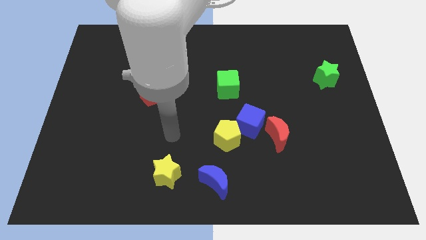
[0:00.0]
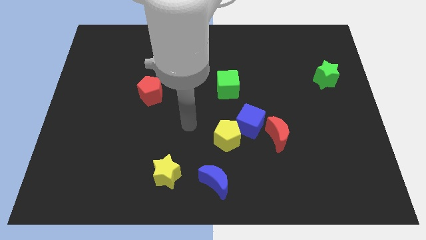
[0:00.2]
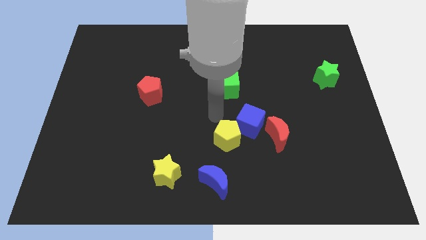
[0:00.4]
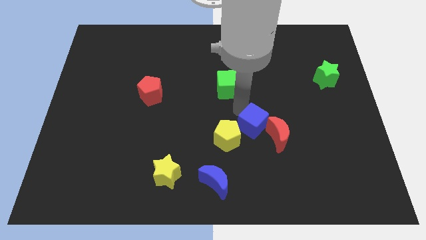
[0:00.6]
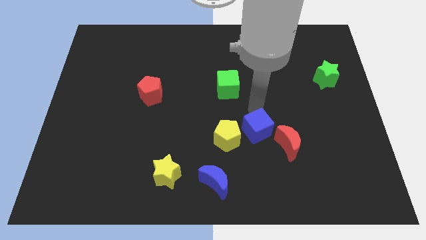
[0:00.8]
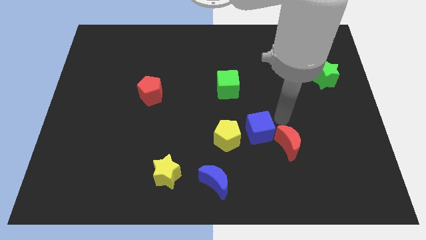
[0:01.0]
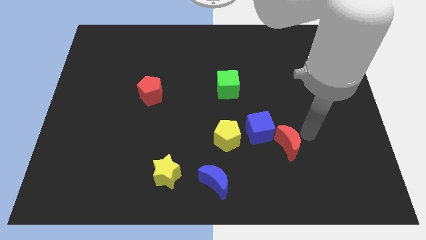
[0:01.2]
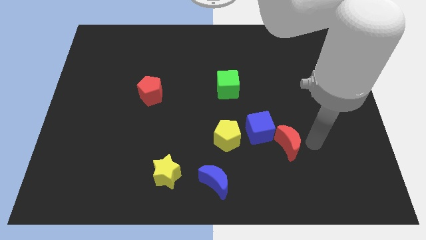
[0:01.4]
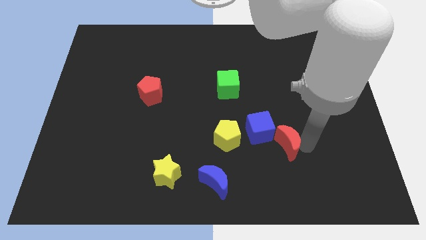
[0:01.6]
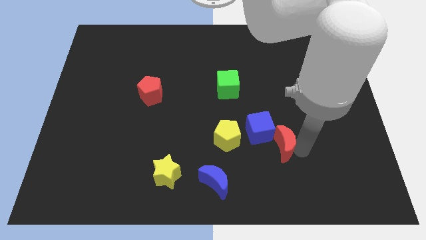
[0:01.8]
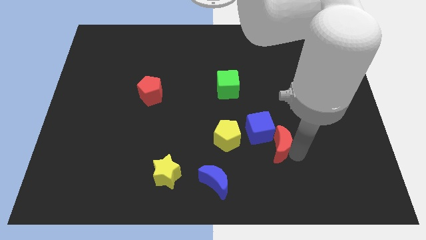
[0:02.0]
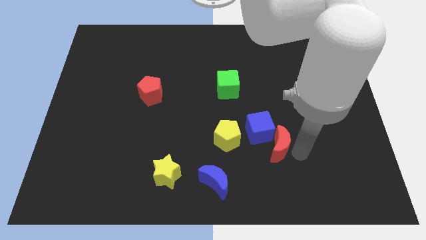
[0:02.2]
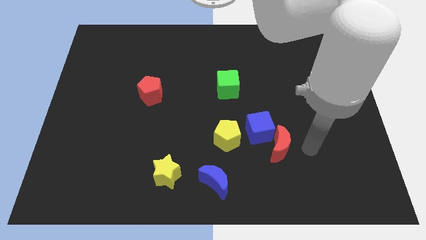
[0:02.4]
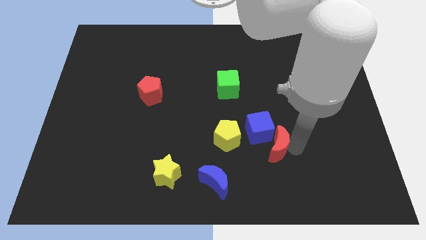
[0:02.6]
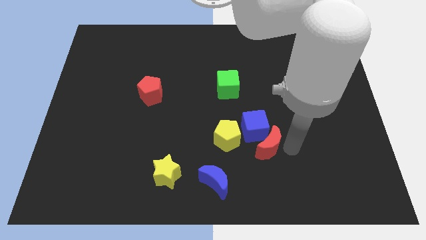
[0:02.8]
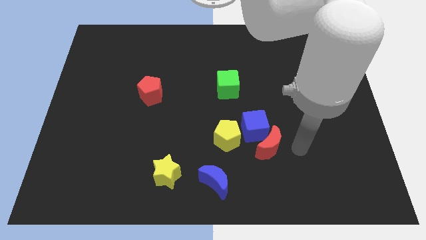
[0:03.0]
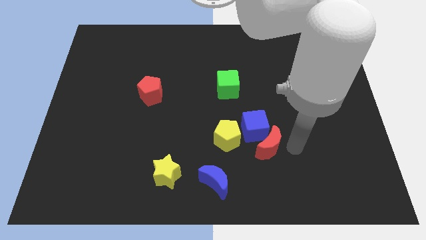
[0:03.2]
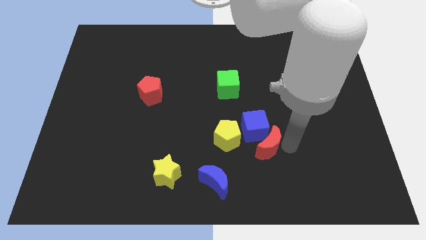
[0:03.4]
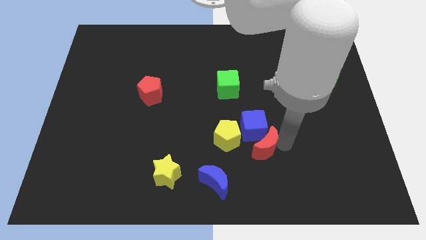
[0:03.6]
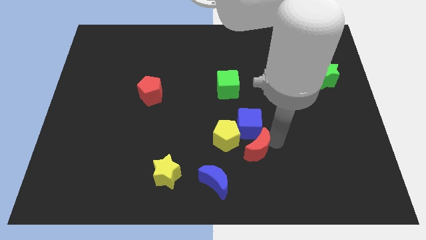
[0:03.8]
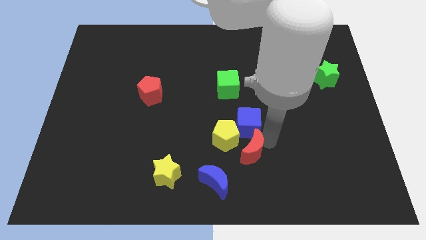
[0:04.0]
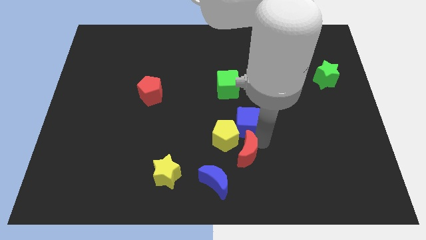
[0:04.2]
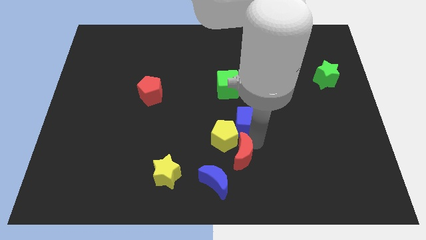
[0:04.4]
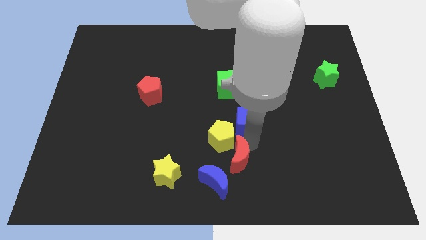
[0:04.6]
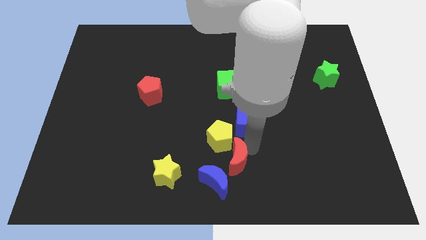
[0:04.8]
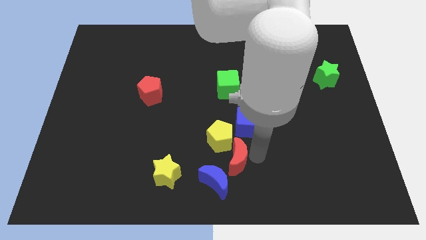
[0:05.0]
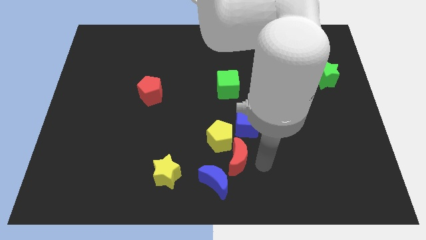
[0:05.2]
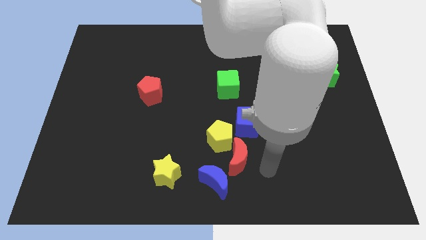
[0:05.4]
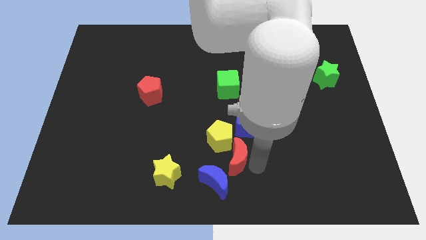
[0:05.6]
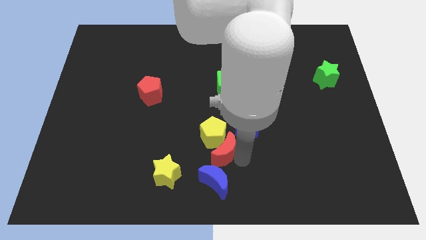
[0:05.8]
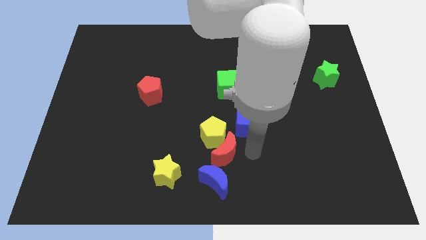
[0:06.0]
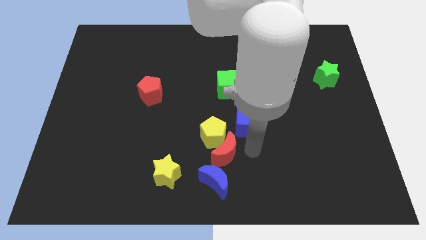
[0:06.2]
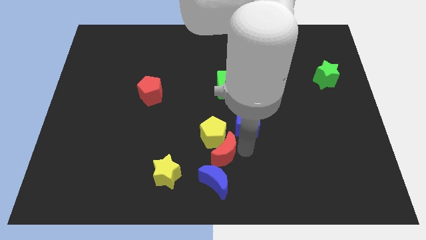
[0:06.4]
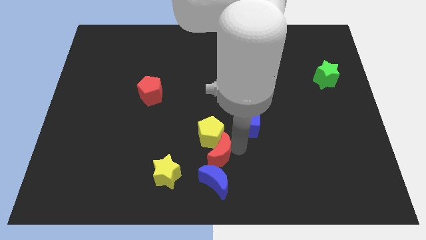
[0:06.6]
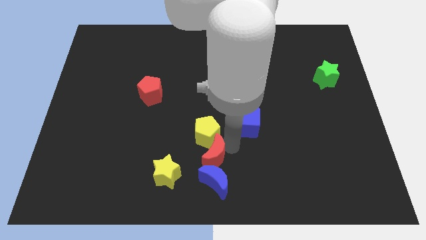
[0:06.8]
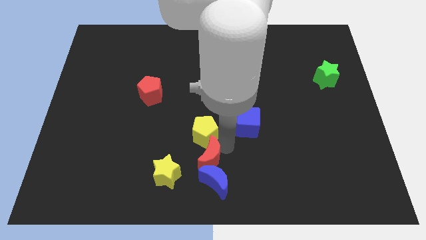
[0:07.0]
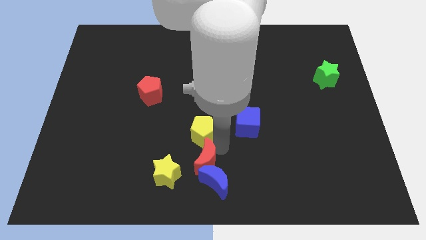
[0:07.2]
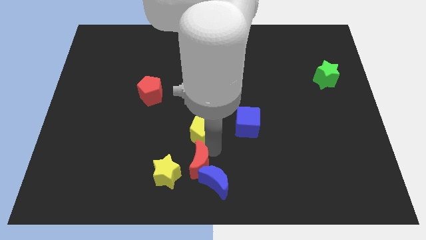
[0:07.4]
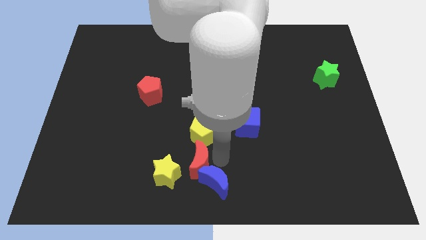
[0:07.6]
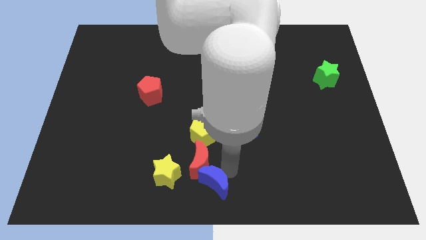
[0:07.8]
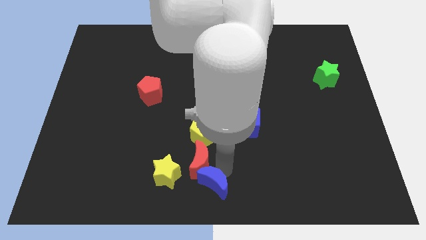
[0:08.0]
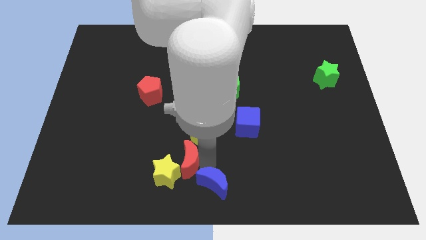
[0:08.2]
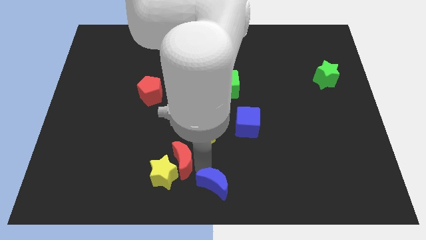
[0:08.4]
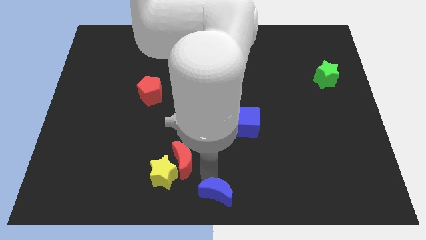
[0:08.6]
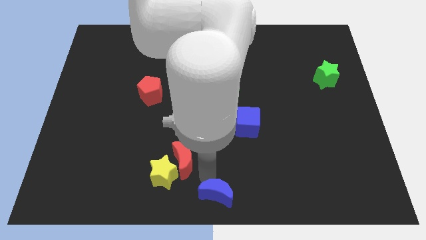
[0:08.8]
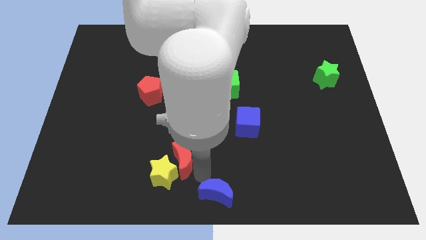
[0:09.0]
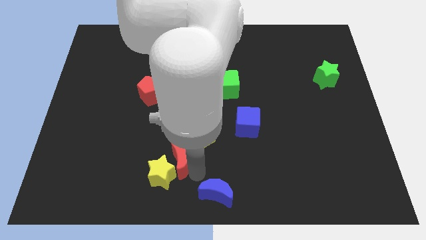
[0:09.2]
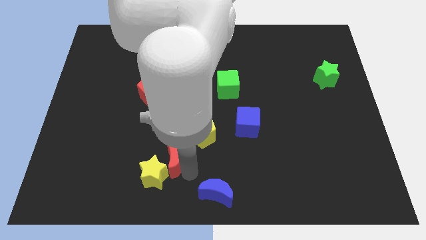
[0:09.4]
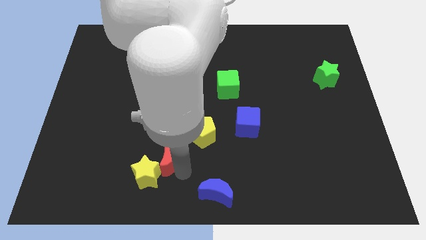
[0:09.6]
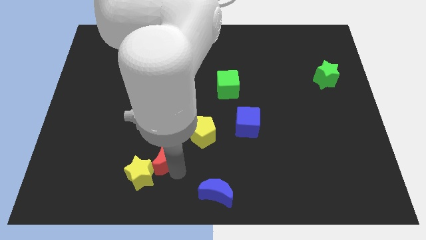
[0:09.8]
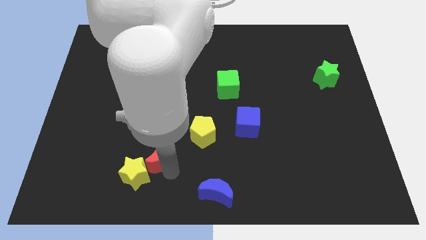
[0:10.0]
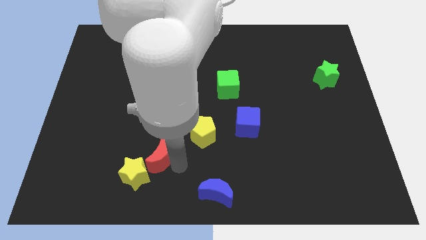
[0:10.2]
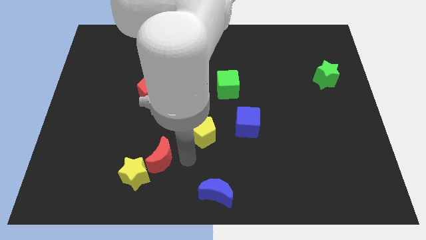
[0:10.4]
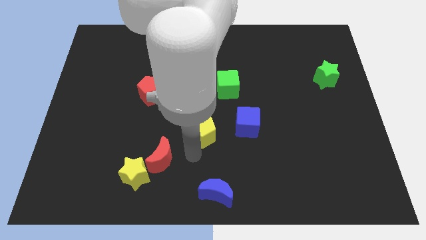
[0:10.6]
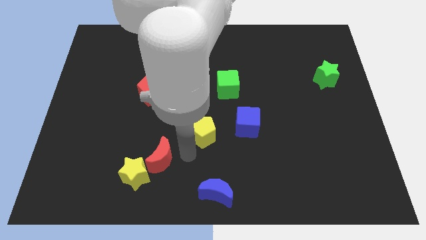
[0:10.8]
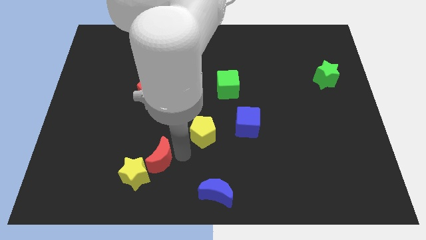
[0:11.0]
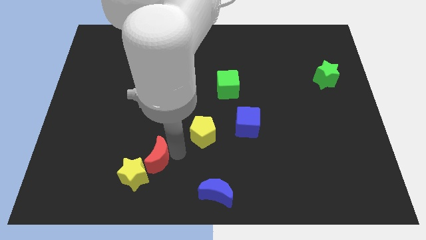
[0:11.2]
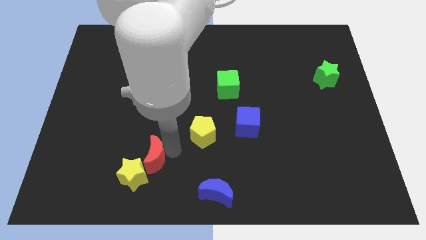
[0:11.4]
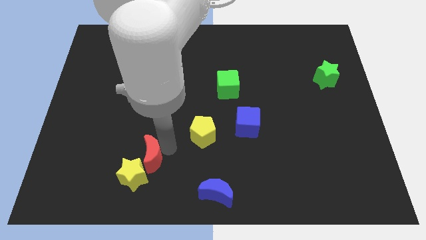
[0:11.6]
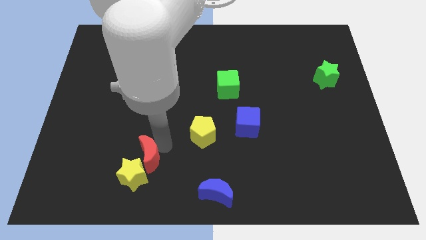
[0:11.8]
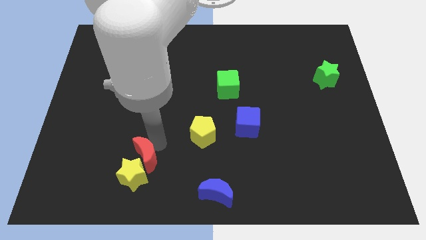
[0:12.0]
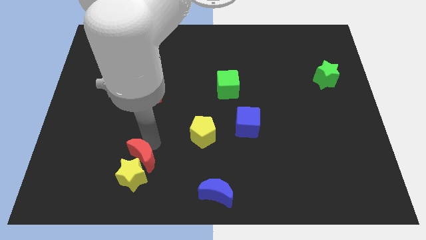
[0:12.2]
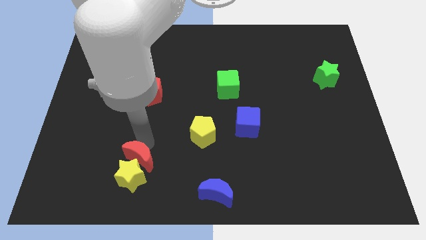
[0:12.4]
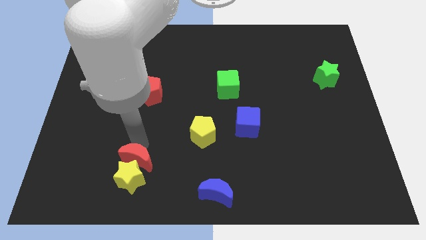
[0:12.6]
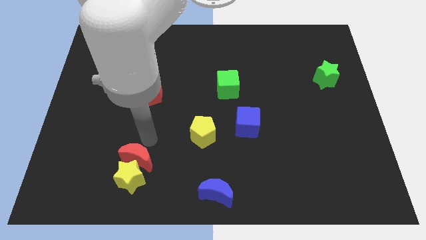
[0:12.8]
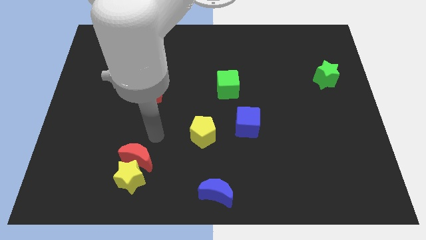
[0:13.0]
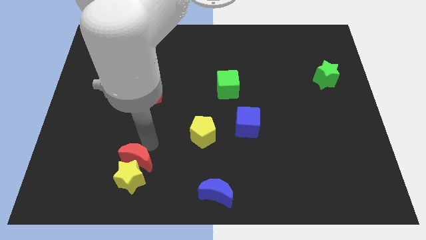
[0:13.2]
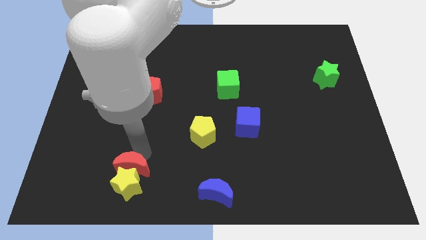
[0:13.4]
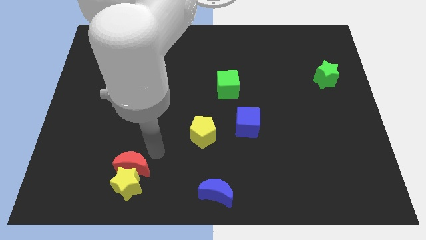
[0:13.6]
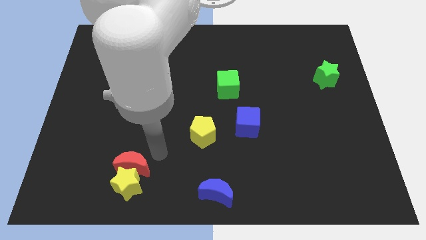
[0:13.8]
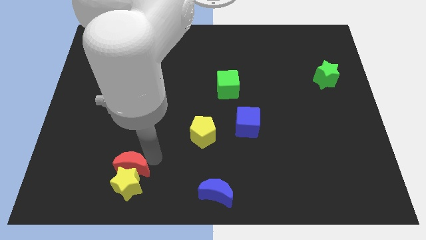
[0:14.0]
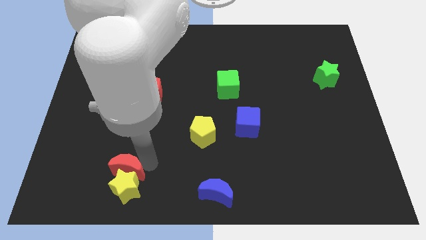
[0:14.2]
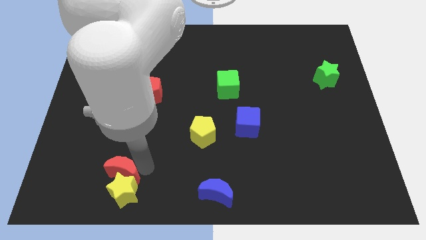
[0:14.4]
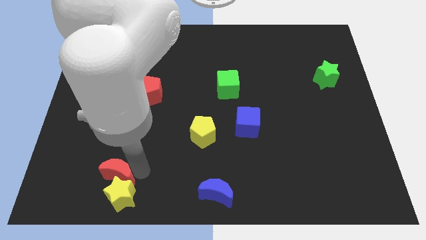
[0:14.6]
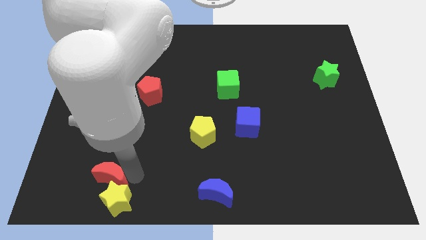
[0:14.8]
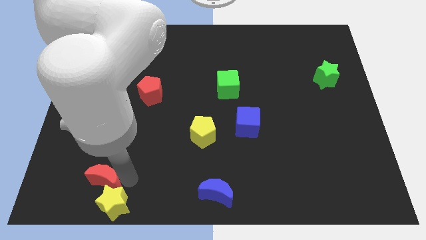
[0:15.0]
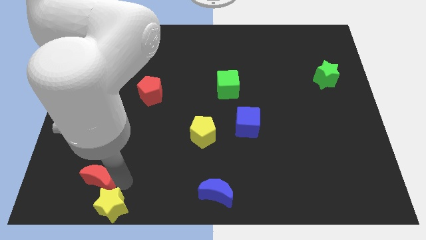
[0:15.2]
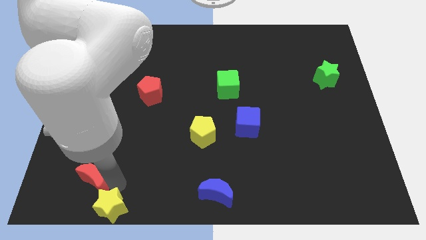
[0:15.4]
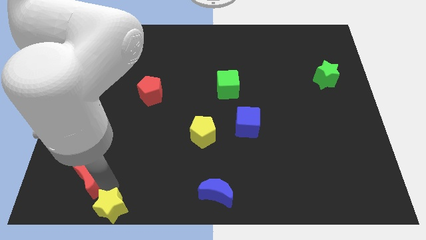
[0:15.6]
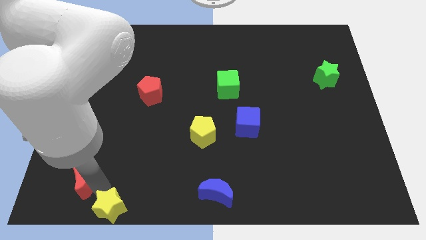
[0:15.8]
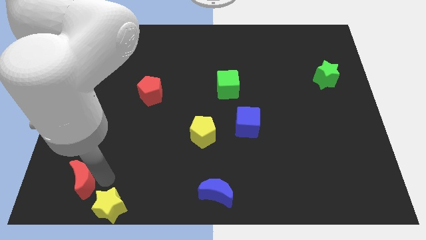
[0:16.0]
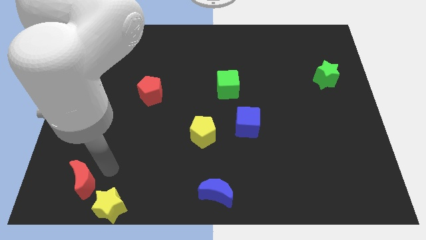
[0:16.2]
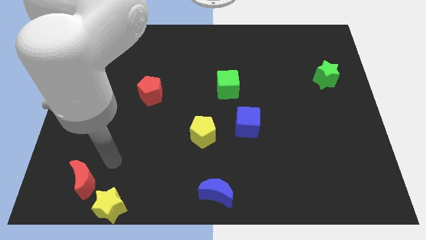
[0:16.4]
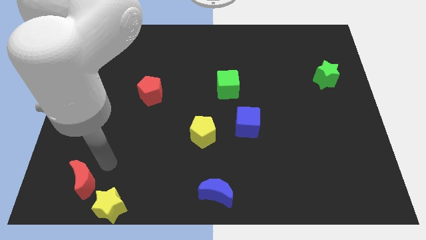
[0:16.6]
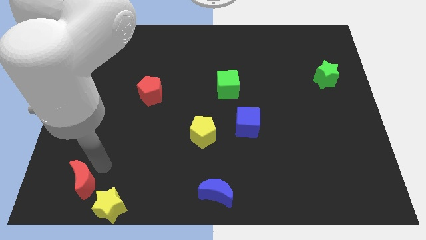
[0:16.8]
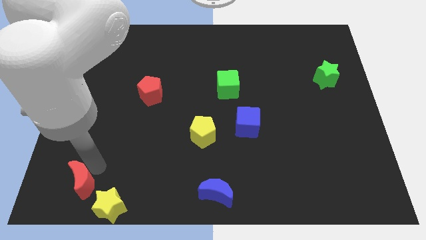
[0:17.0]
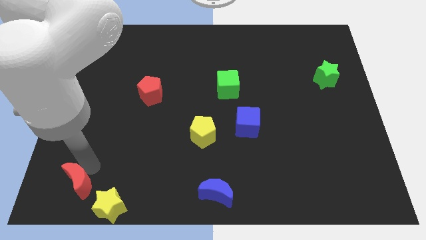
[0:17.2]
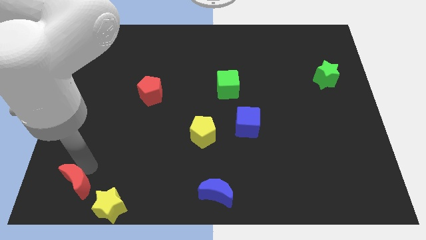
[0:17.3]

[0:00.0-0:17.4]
put the red moon to the bottom left of the board
